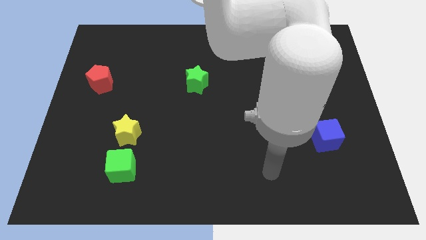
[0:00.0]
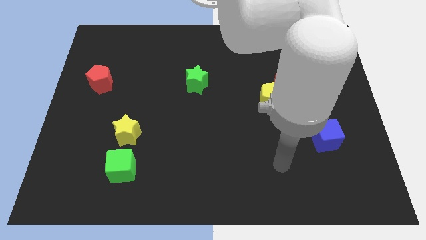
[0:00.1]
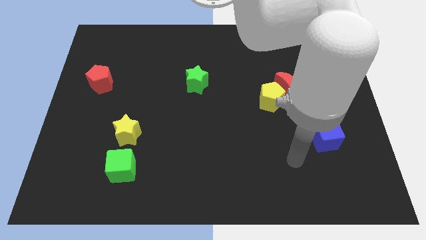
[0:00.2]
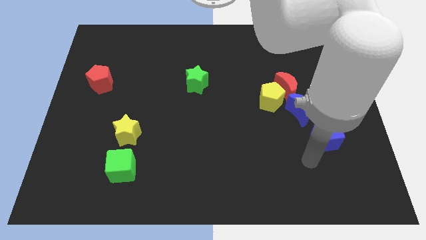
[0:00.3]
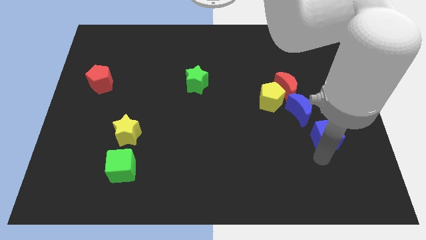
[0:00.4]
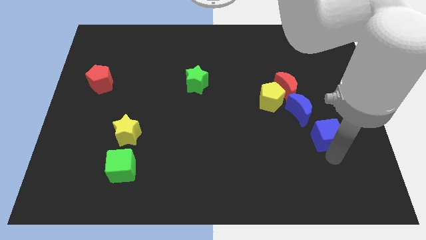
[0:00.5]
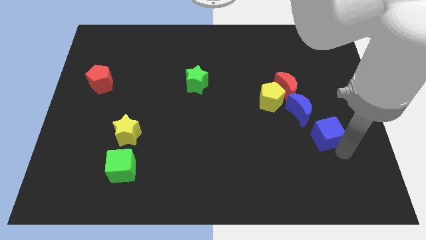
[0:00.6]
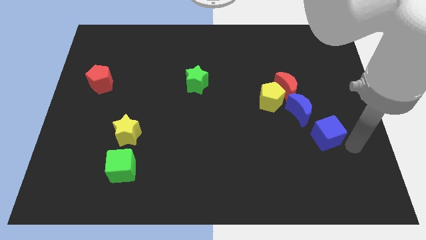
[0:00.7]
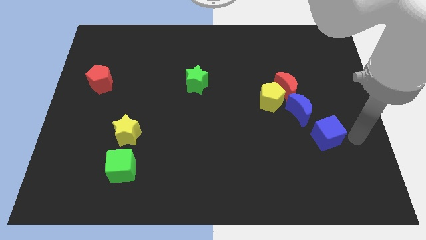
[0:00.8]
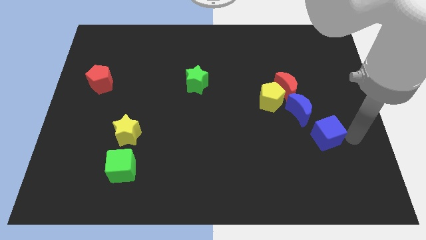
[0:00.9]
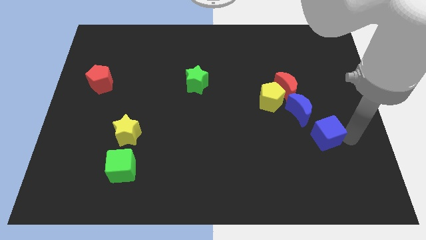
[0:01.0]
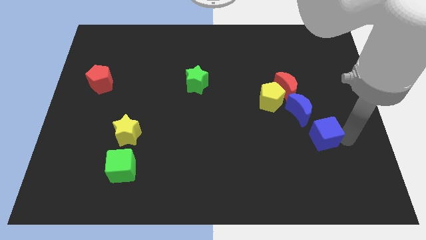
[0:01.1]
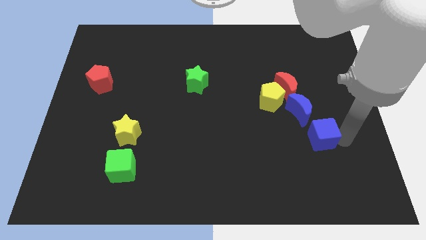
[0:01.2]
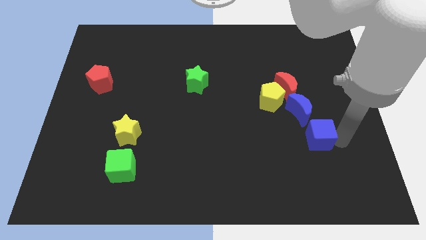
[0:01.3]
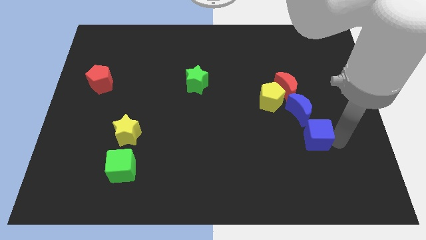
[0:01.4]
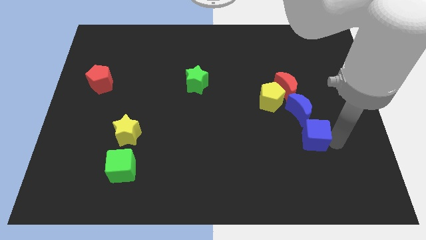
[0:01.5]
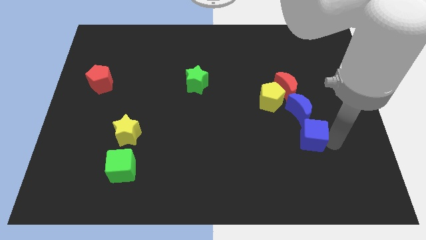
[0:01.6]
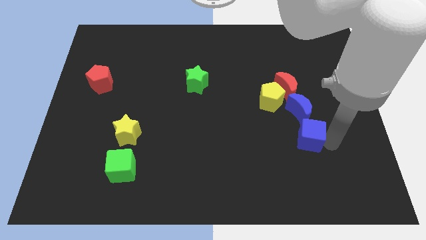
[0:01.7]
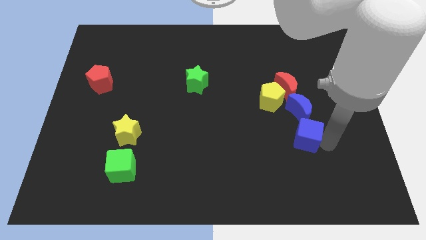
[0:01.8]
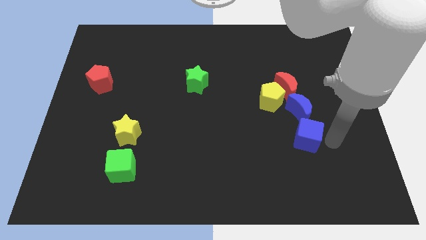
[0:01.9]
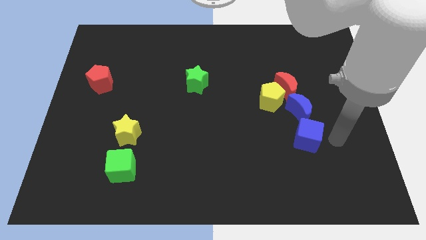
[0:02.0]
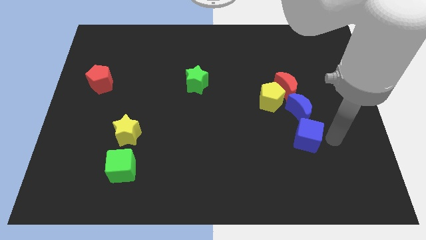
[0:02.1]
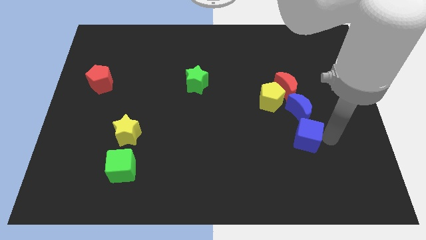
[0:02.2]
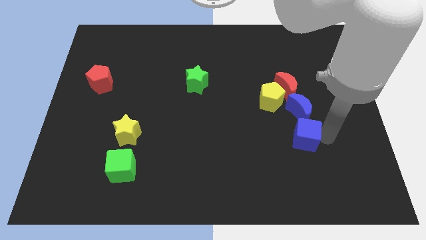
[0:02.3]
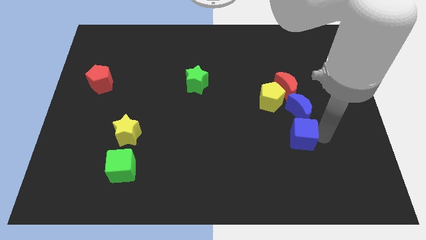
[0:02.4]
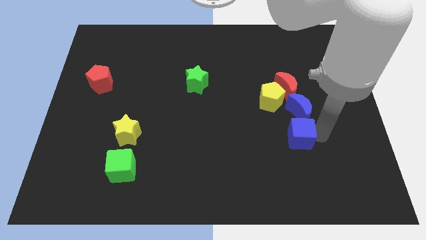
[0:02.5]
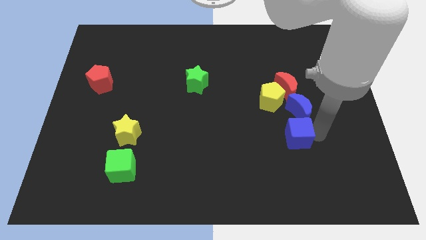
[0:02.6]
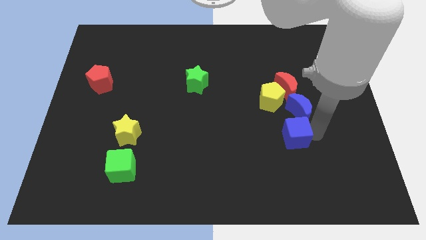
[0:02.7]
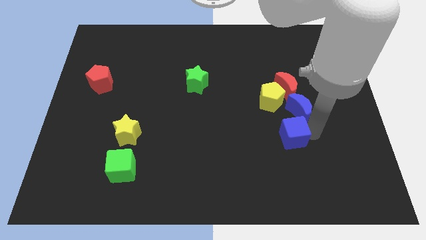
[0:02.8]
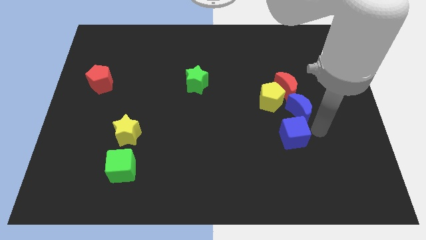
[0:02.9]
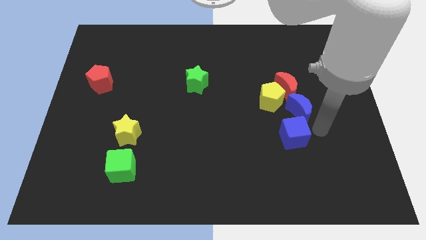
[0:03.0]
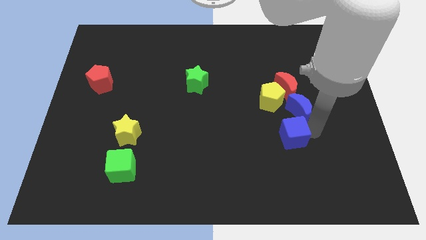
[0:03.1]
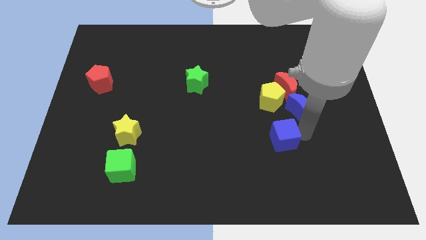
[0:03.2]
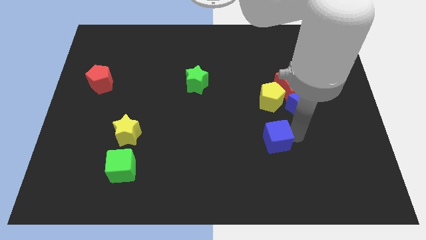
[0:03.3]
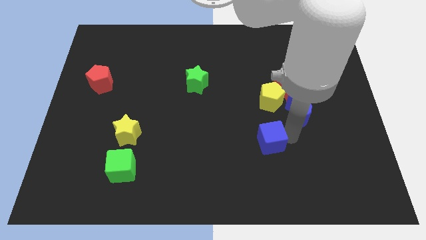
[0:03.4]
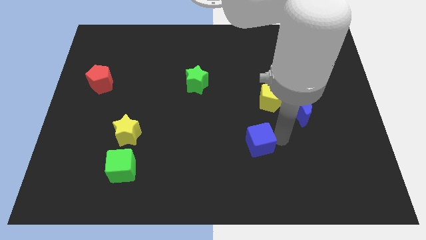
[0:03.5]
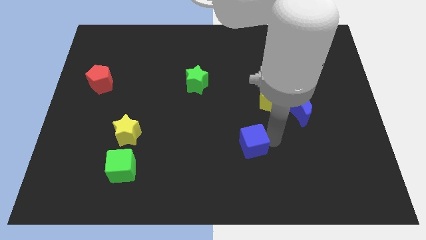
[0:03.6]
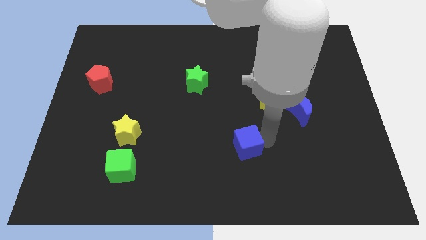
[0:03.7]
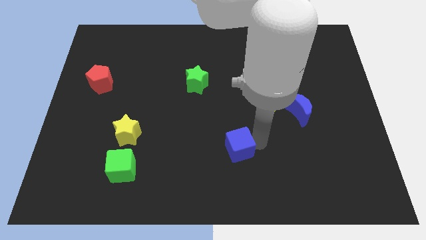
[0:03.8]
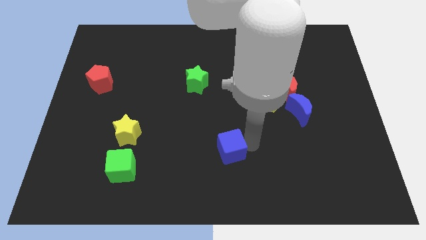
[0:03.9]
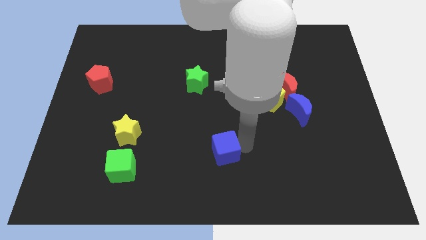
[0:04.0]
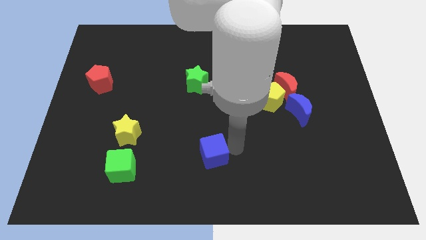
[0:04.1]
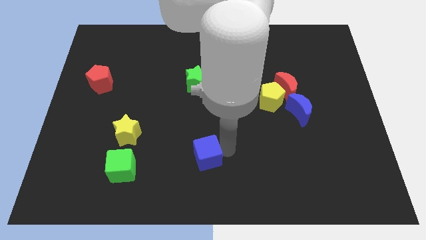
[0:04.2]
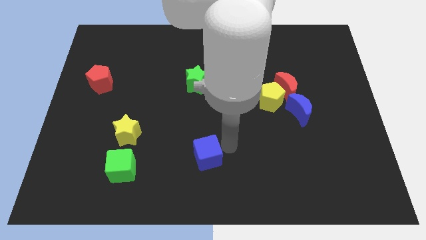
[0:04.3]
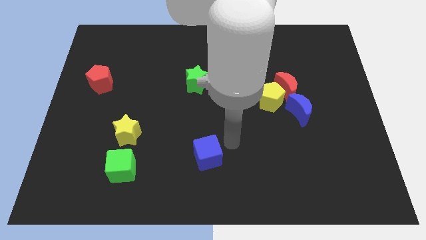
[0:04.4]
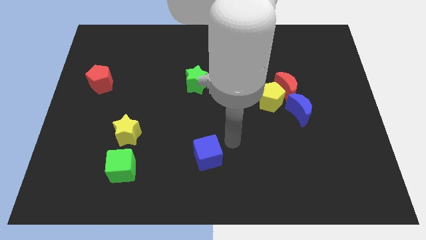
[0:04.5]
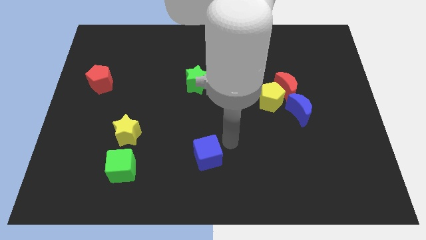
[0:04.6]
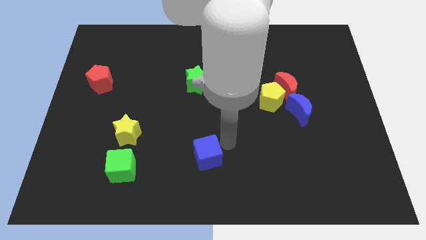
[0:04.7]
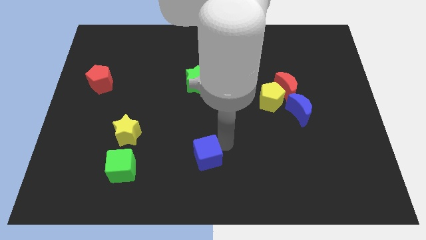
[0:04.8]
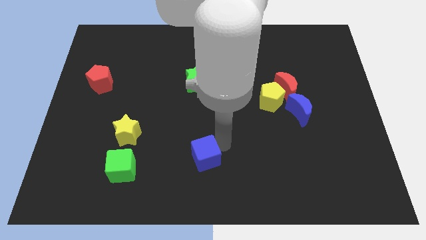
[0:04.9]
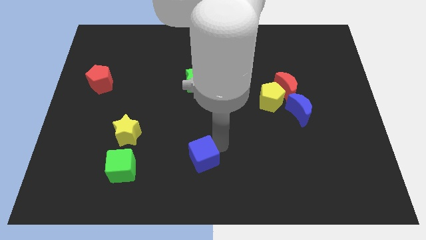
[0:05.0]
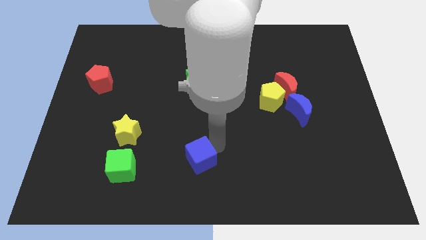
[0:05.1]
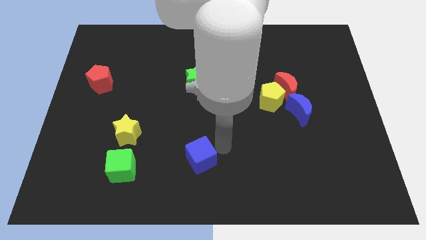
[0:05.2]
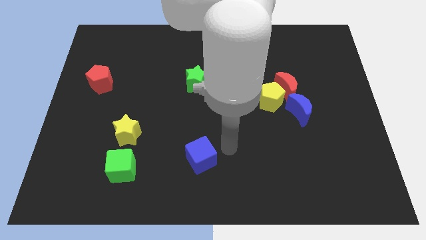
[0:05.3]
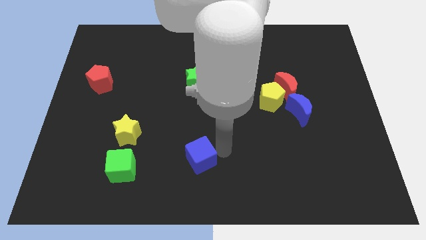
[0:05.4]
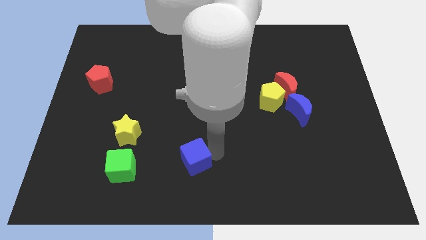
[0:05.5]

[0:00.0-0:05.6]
move the blue cube to the right of the green cube

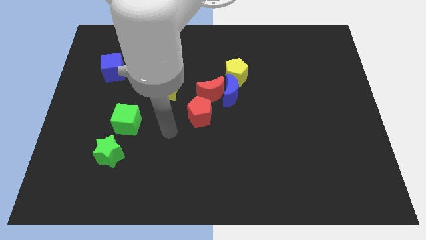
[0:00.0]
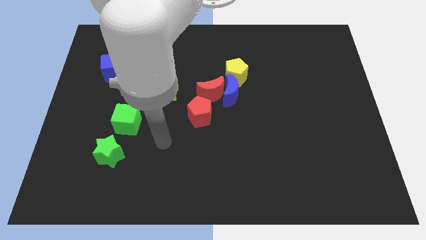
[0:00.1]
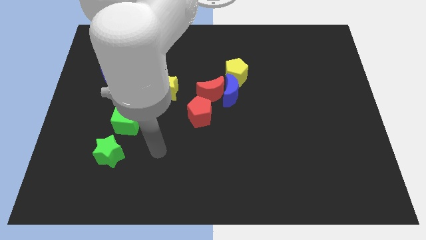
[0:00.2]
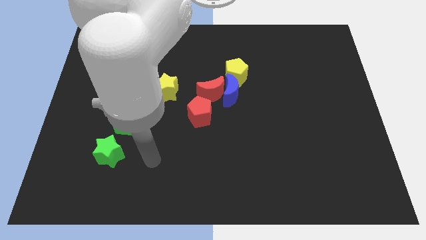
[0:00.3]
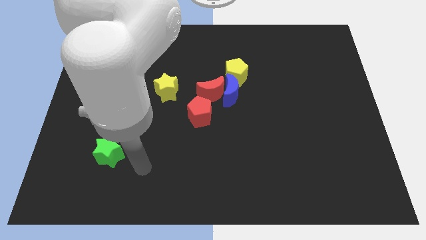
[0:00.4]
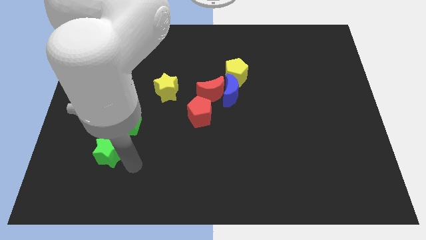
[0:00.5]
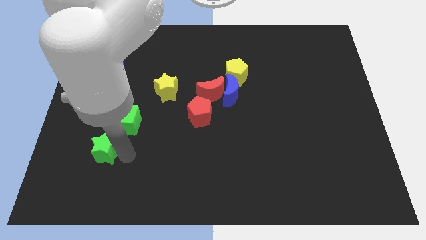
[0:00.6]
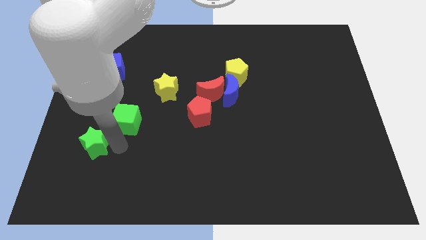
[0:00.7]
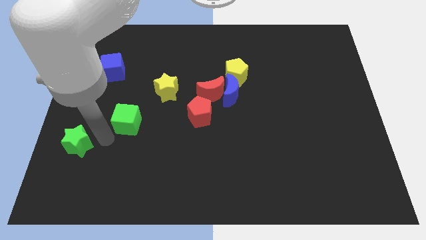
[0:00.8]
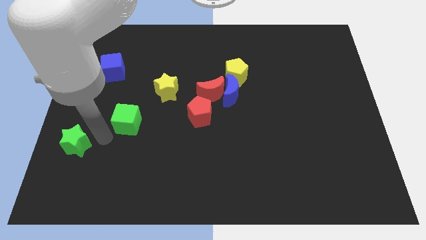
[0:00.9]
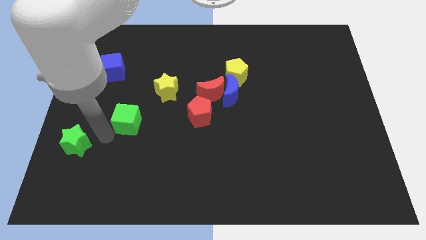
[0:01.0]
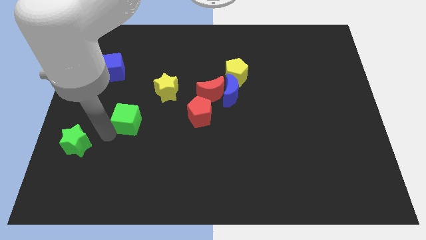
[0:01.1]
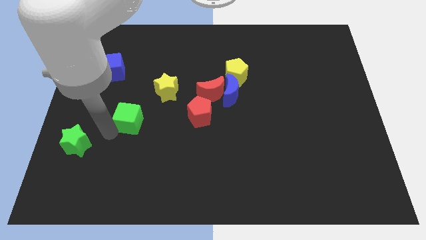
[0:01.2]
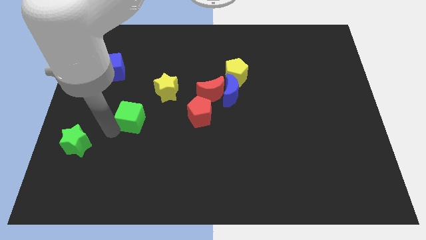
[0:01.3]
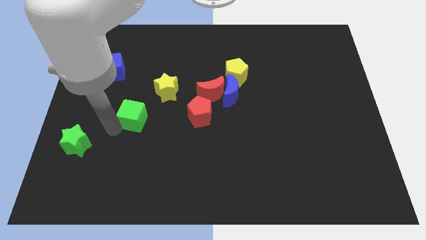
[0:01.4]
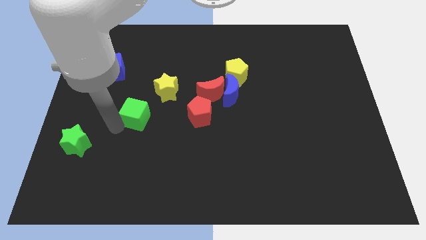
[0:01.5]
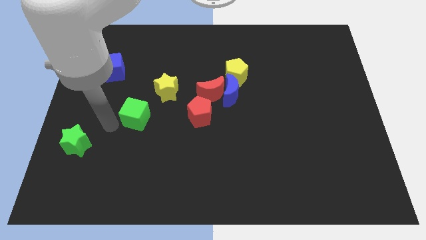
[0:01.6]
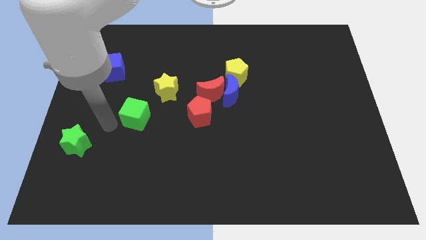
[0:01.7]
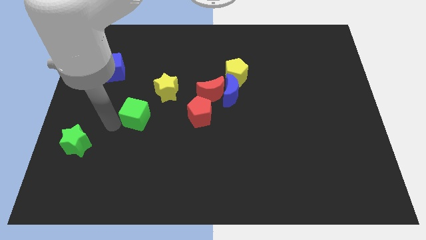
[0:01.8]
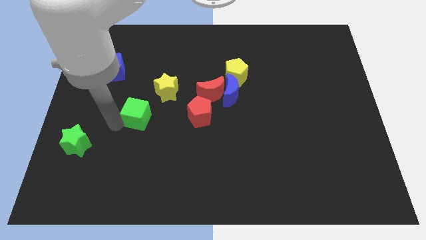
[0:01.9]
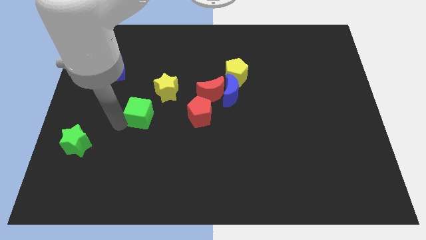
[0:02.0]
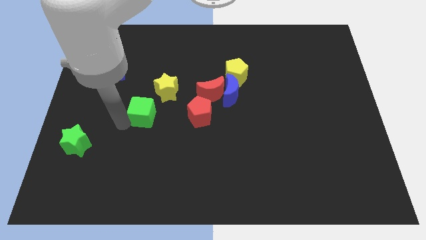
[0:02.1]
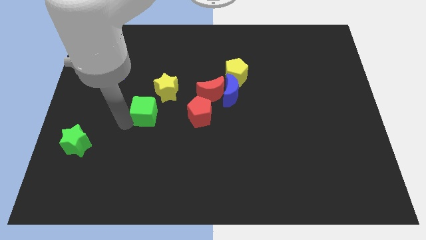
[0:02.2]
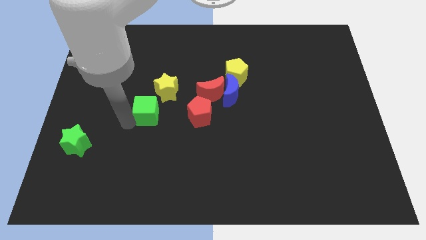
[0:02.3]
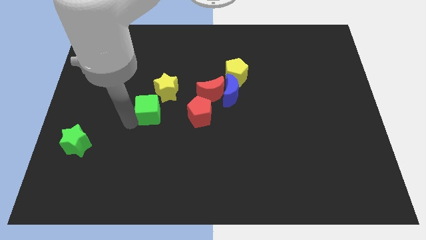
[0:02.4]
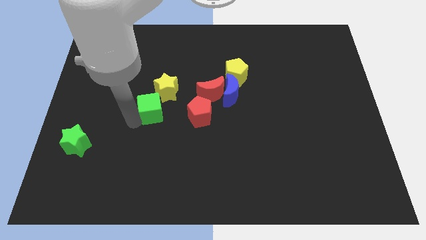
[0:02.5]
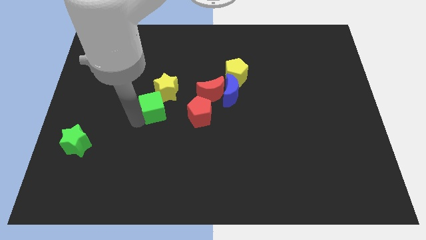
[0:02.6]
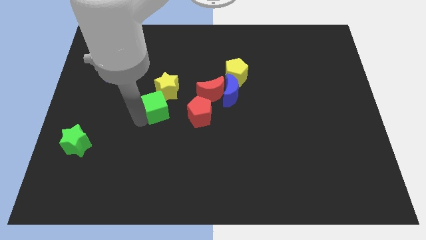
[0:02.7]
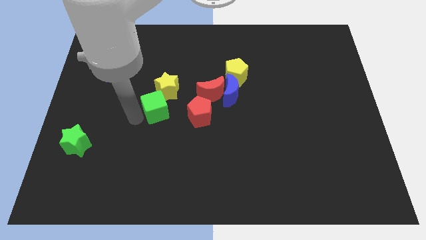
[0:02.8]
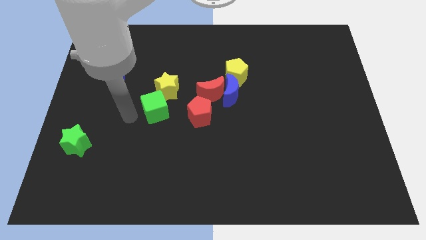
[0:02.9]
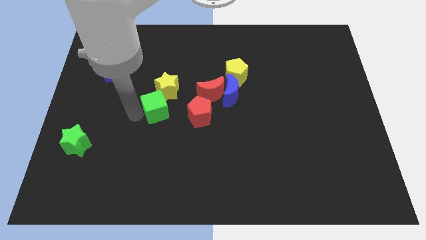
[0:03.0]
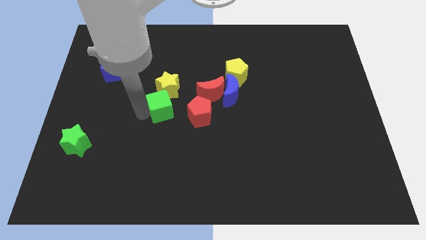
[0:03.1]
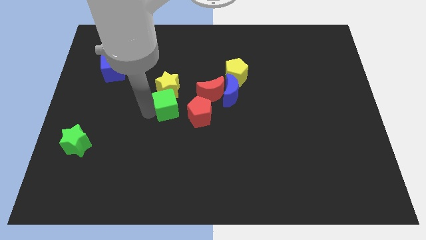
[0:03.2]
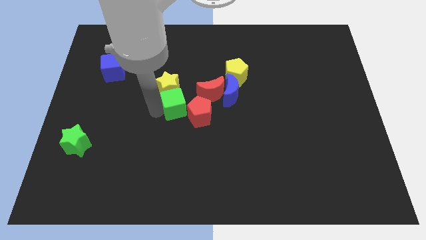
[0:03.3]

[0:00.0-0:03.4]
slide the green cube left of the blue moon
